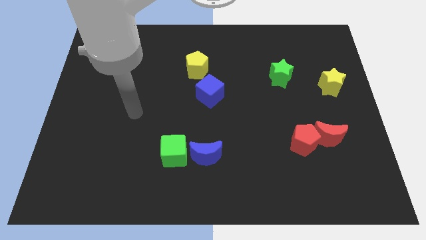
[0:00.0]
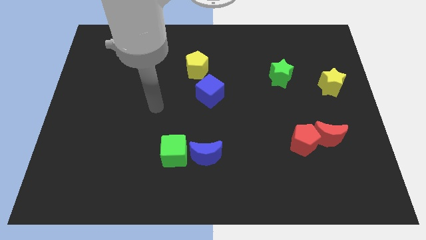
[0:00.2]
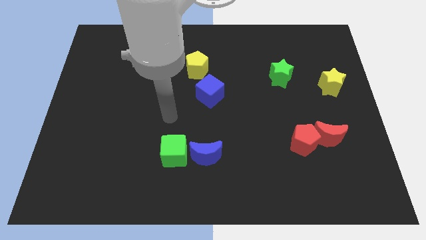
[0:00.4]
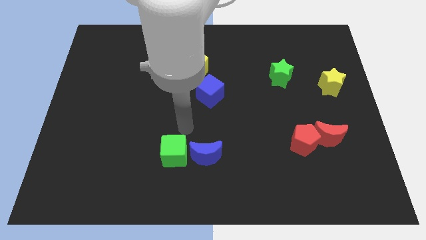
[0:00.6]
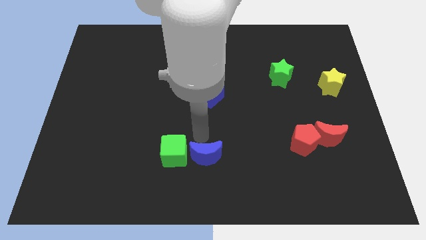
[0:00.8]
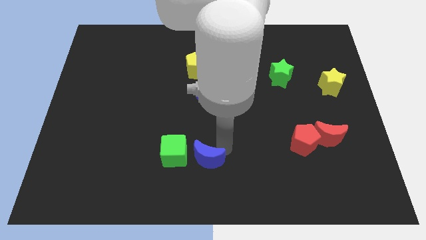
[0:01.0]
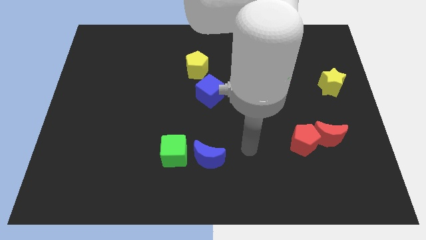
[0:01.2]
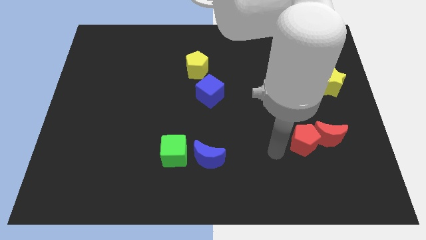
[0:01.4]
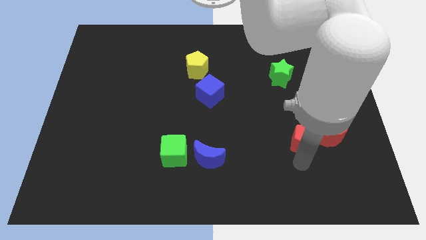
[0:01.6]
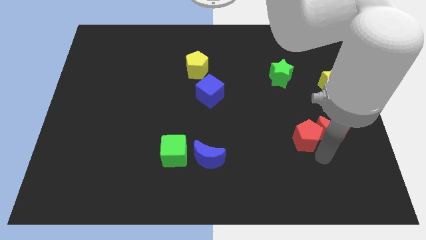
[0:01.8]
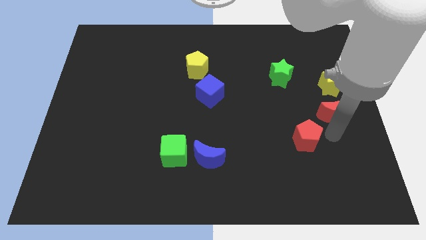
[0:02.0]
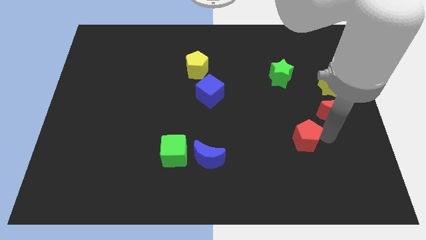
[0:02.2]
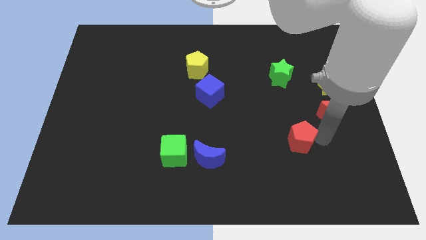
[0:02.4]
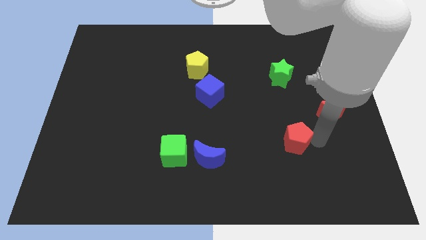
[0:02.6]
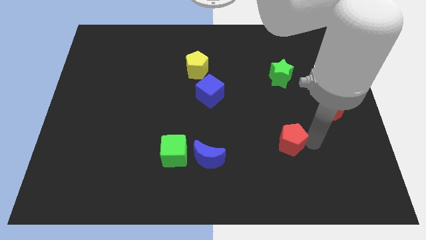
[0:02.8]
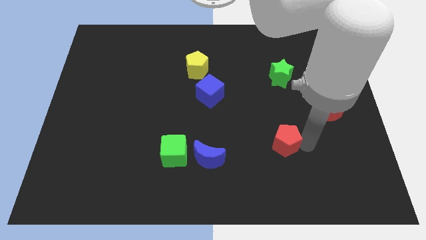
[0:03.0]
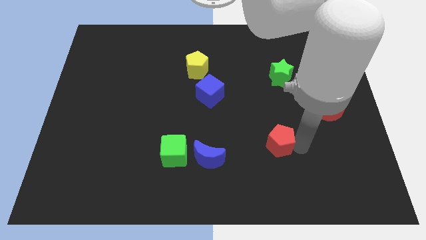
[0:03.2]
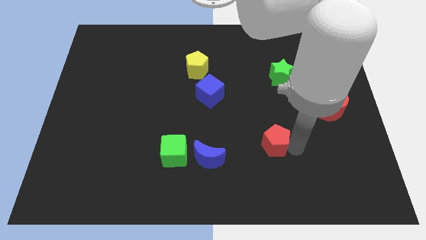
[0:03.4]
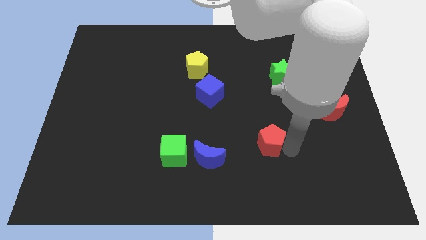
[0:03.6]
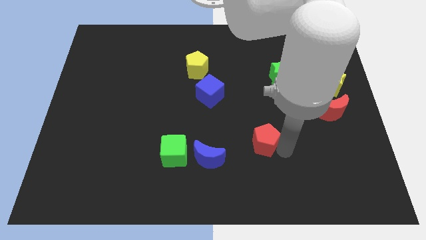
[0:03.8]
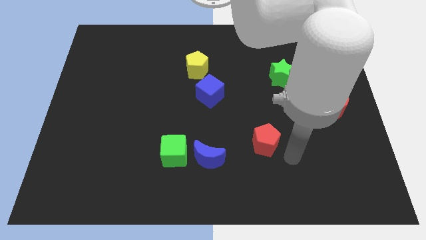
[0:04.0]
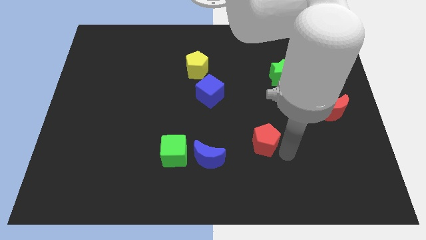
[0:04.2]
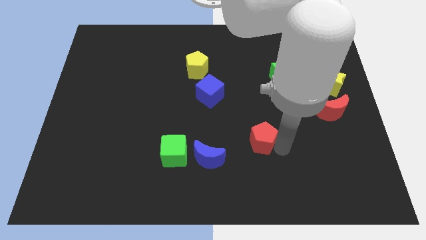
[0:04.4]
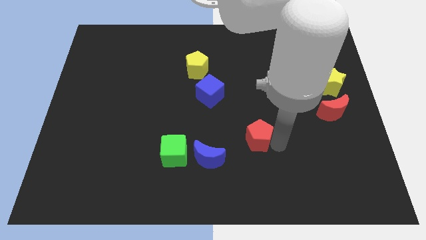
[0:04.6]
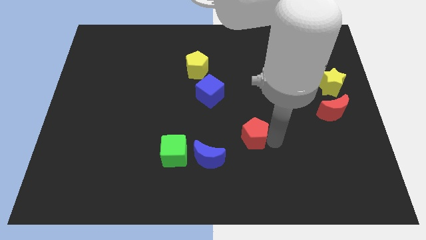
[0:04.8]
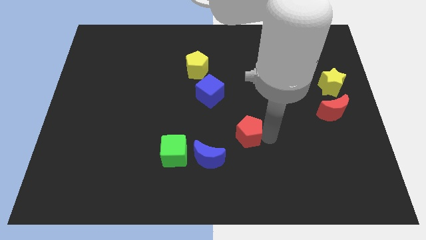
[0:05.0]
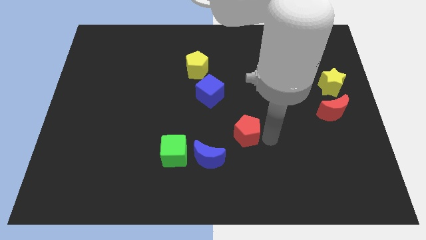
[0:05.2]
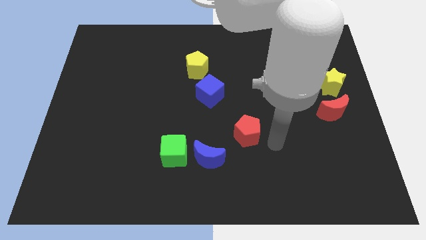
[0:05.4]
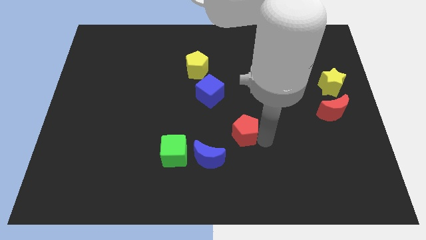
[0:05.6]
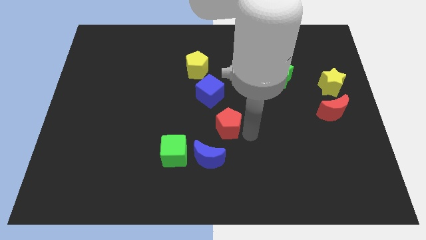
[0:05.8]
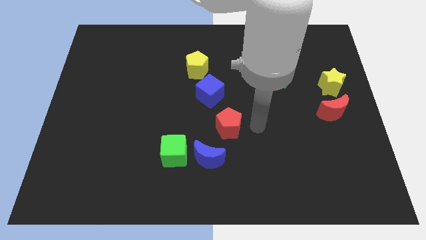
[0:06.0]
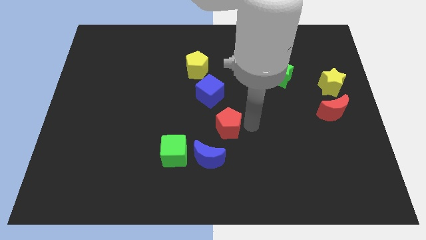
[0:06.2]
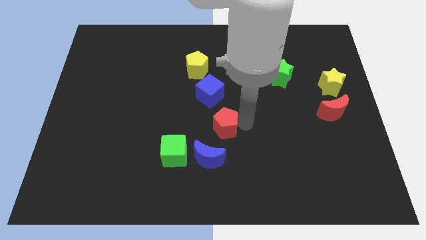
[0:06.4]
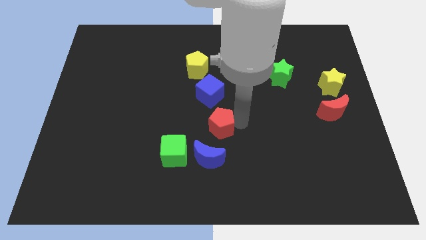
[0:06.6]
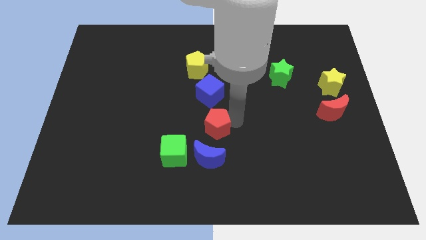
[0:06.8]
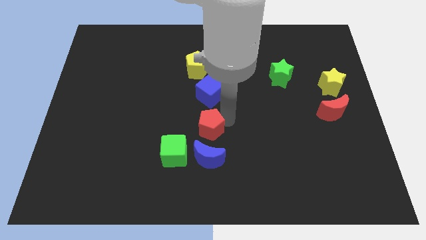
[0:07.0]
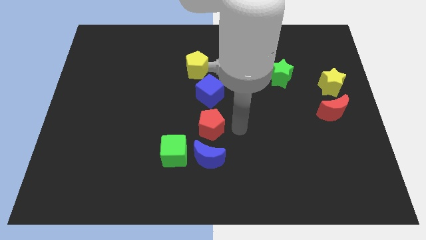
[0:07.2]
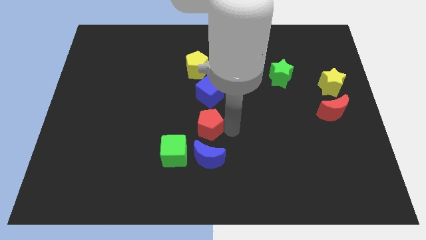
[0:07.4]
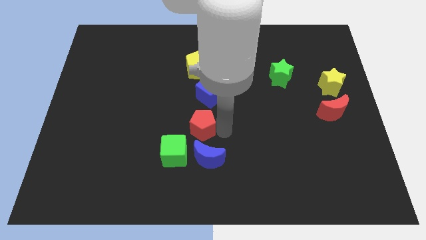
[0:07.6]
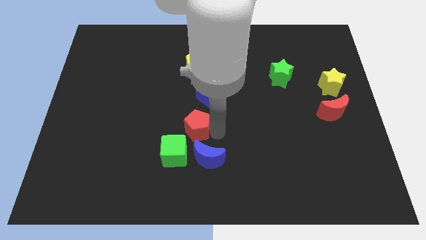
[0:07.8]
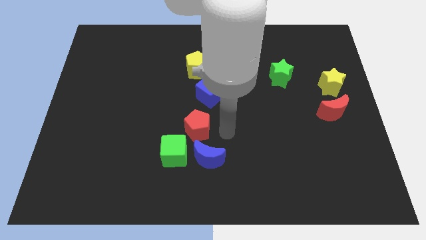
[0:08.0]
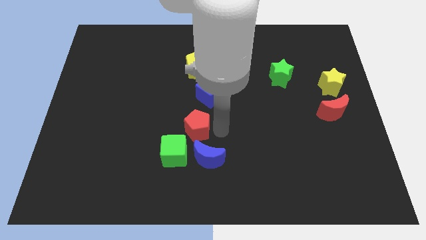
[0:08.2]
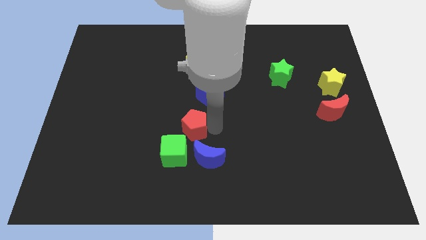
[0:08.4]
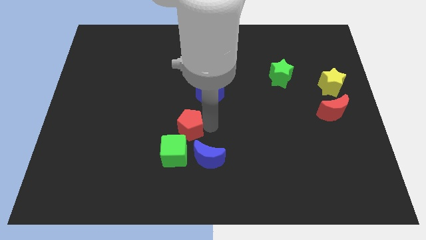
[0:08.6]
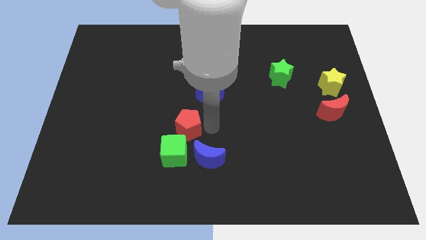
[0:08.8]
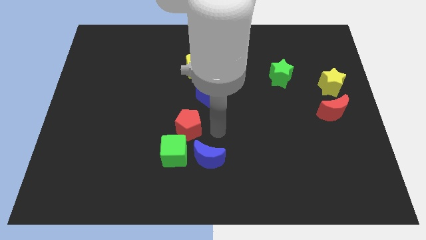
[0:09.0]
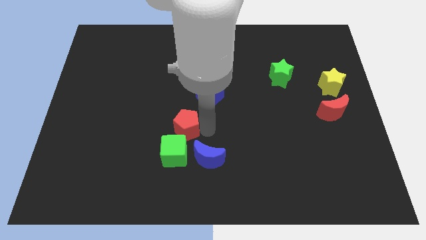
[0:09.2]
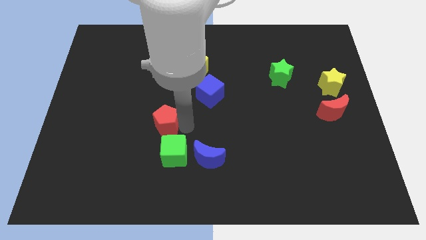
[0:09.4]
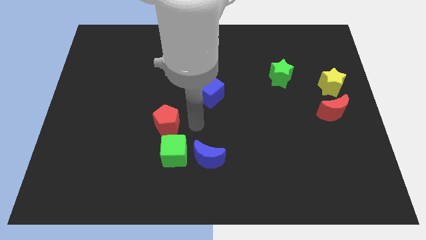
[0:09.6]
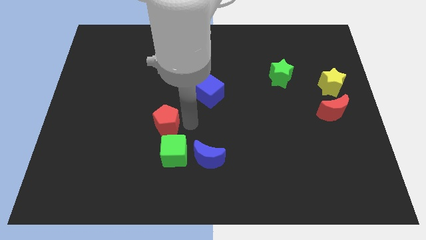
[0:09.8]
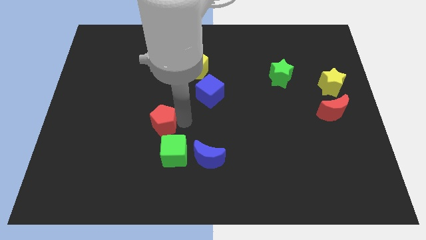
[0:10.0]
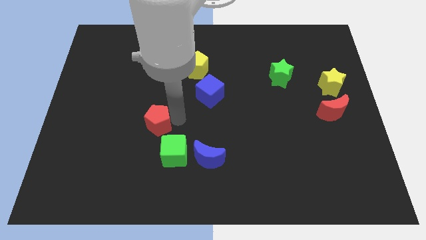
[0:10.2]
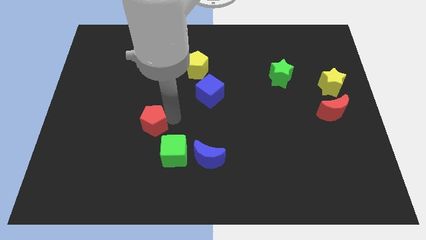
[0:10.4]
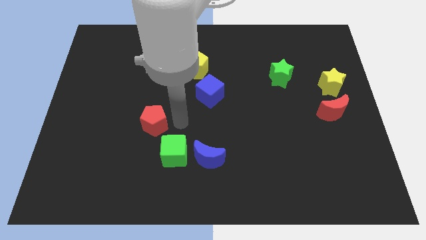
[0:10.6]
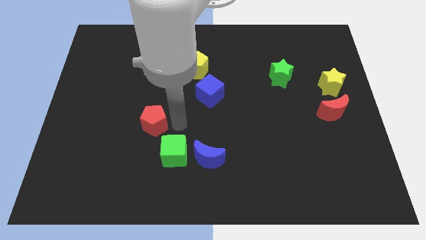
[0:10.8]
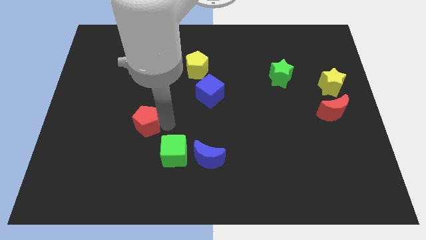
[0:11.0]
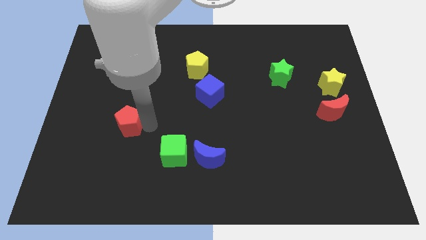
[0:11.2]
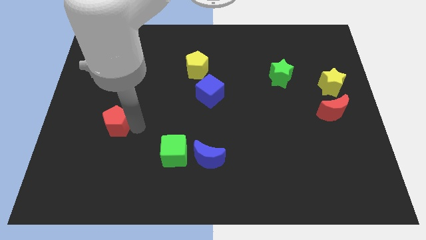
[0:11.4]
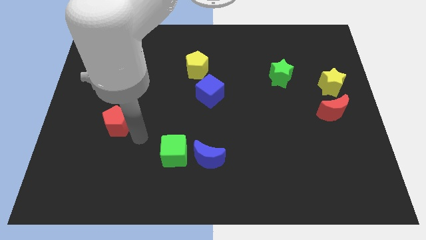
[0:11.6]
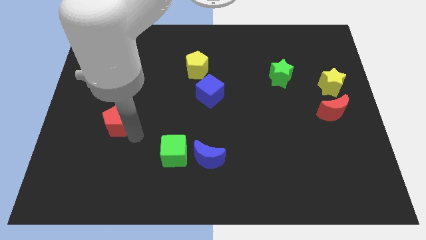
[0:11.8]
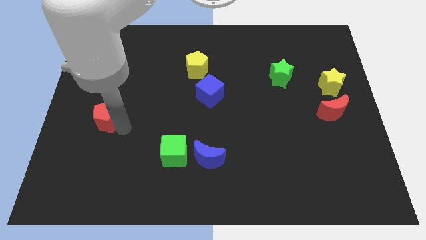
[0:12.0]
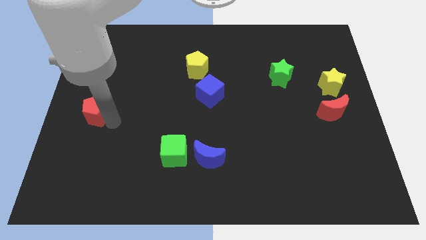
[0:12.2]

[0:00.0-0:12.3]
move the red pentagon to the left side of the board

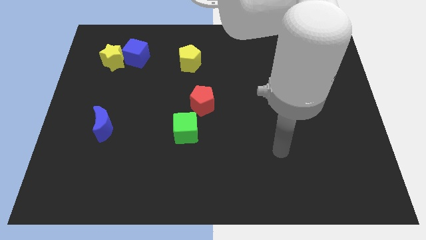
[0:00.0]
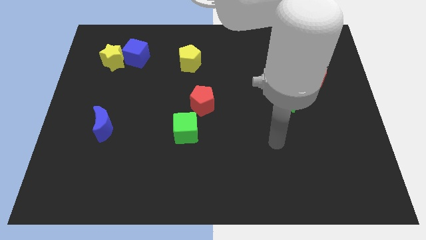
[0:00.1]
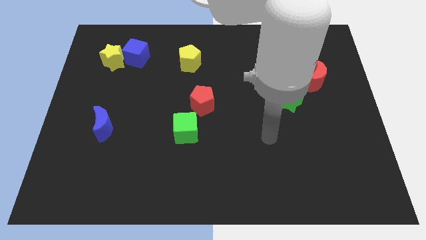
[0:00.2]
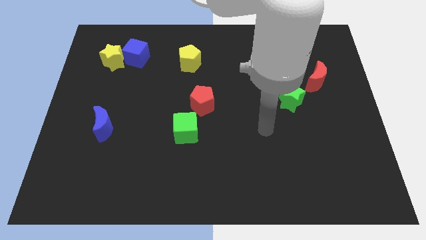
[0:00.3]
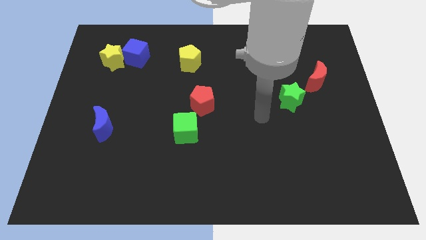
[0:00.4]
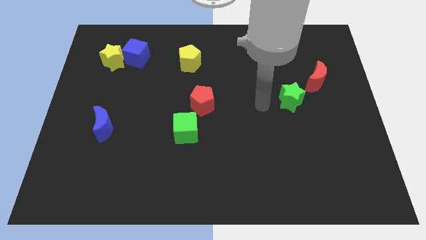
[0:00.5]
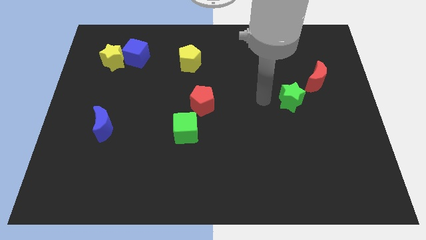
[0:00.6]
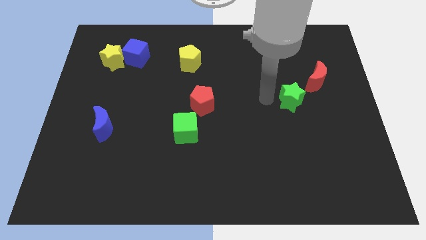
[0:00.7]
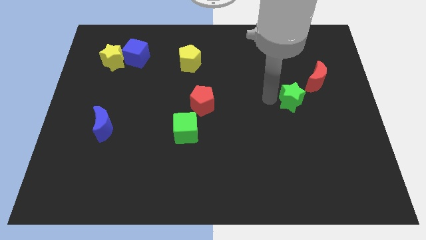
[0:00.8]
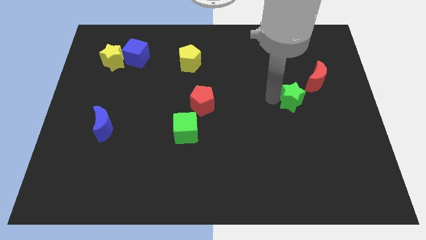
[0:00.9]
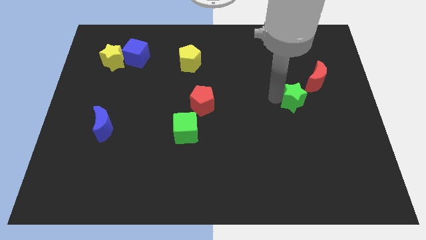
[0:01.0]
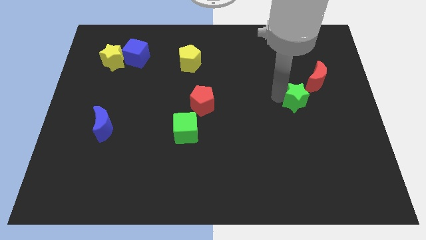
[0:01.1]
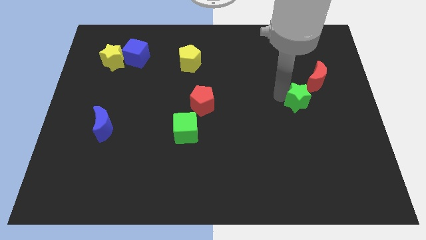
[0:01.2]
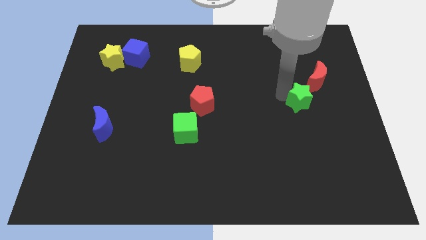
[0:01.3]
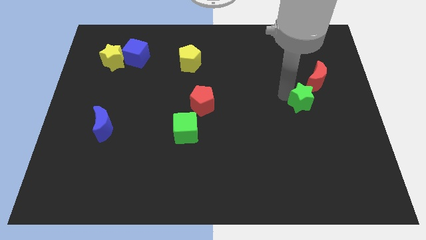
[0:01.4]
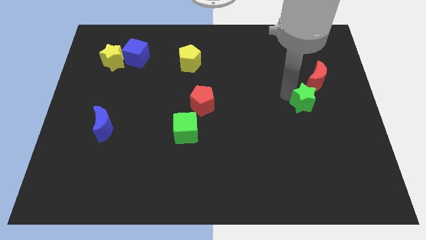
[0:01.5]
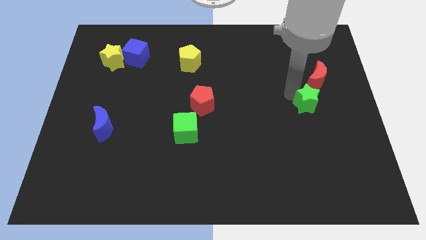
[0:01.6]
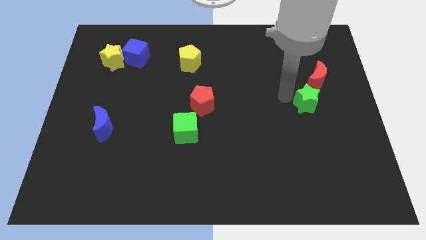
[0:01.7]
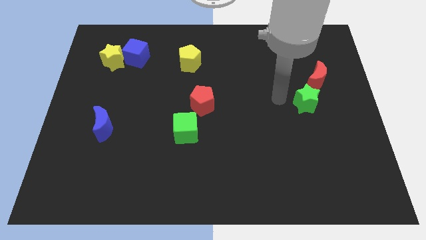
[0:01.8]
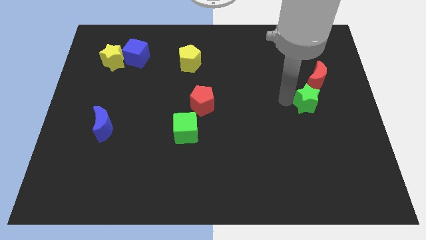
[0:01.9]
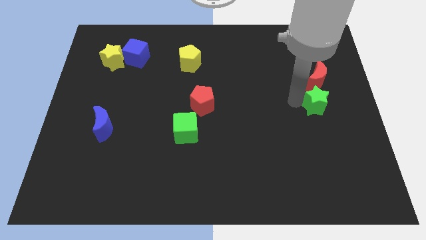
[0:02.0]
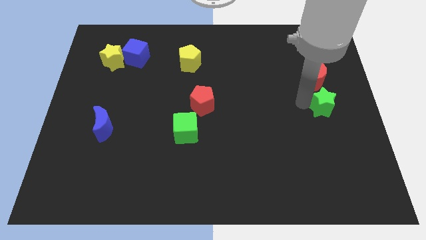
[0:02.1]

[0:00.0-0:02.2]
slide the green star to the center right
